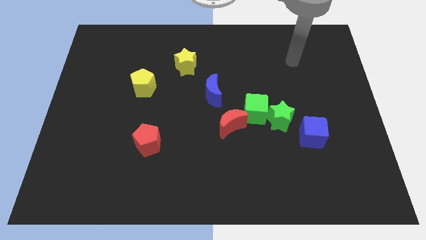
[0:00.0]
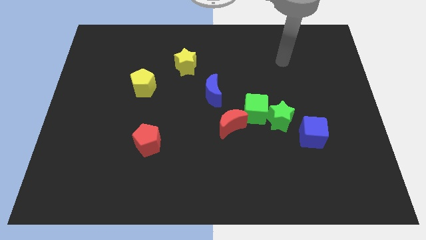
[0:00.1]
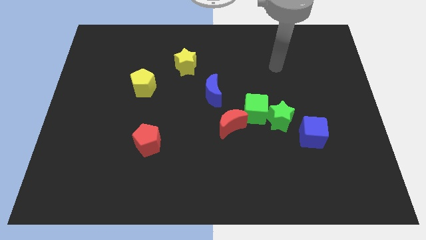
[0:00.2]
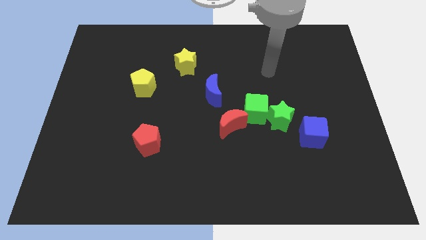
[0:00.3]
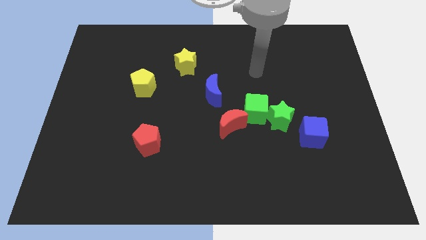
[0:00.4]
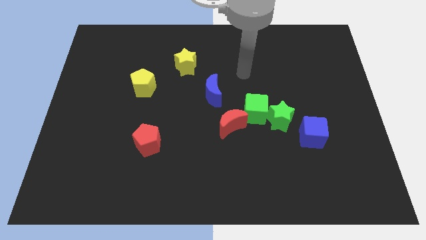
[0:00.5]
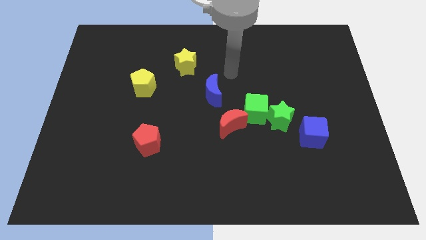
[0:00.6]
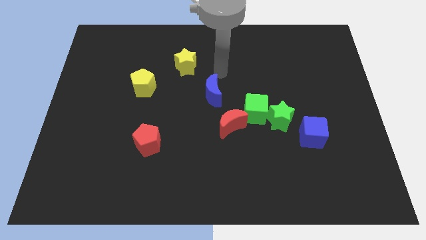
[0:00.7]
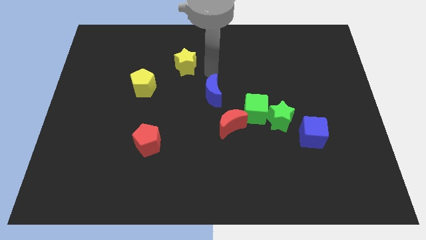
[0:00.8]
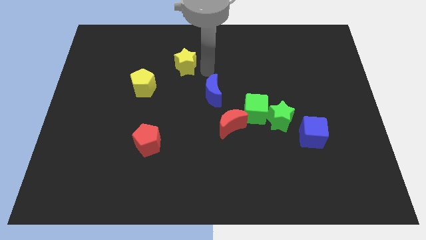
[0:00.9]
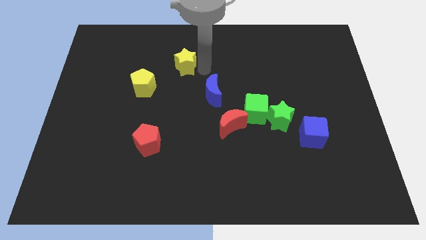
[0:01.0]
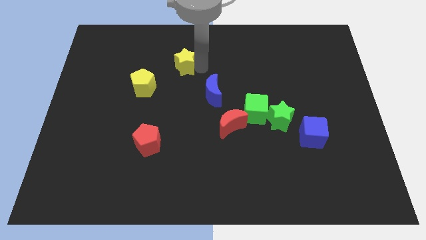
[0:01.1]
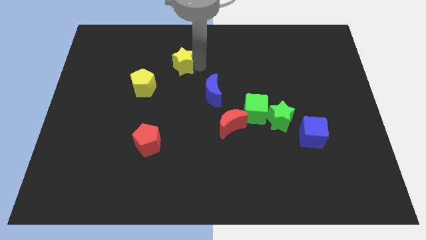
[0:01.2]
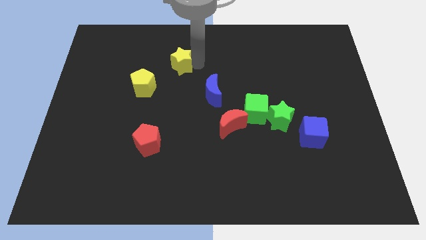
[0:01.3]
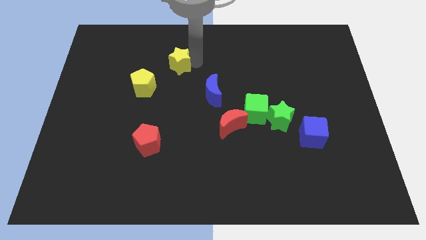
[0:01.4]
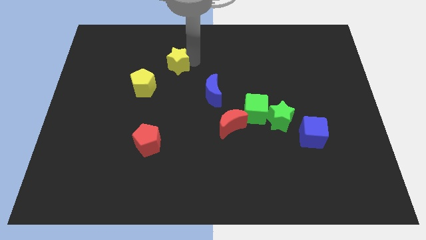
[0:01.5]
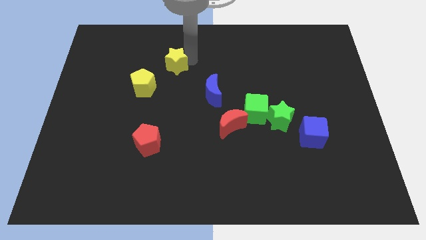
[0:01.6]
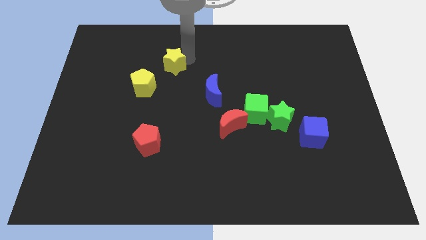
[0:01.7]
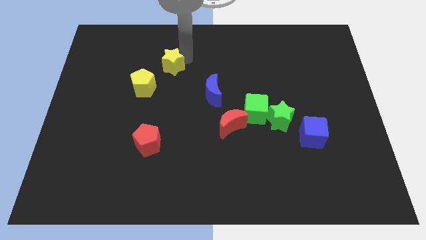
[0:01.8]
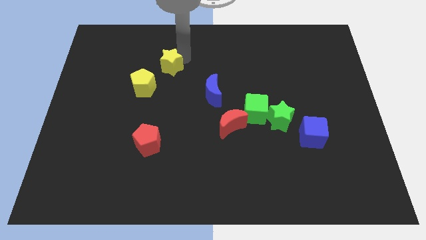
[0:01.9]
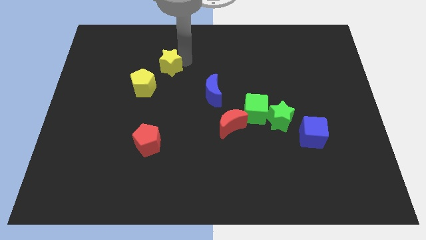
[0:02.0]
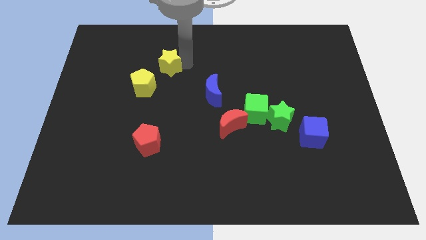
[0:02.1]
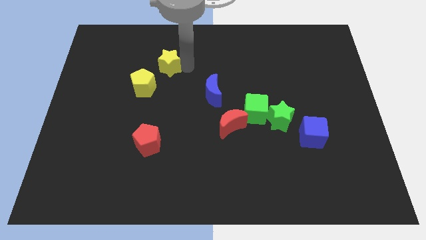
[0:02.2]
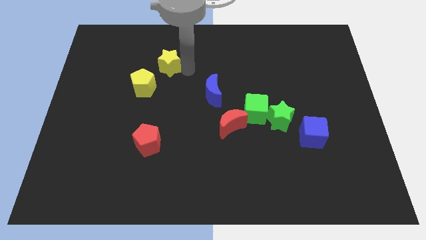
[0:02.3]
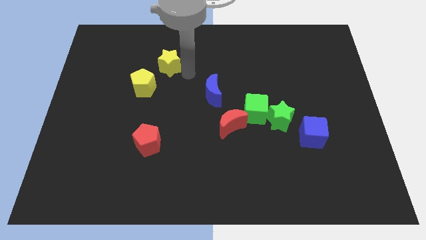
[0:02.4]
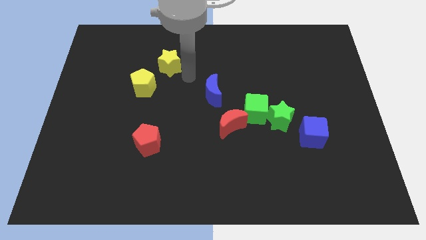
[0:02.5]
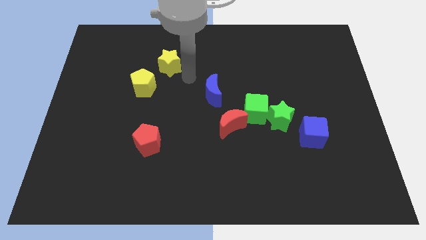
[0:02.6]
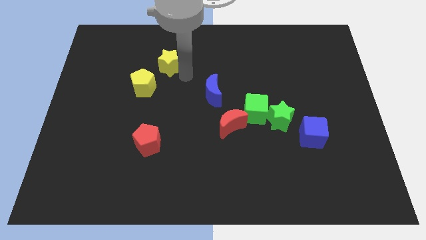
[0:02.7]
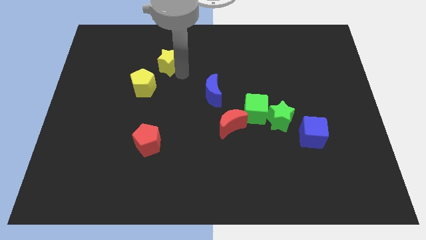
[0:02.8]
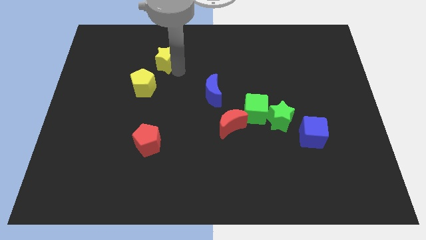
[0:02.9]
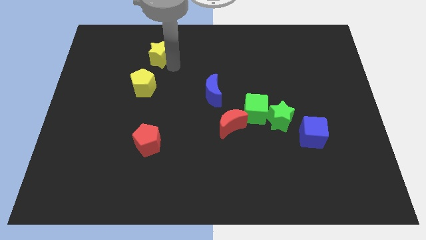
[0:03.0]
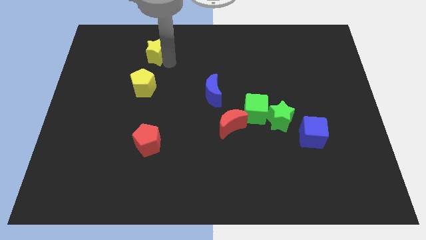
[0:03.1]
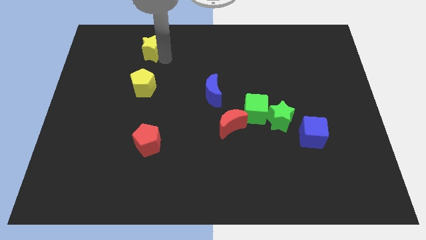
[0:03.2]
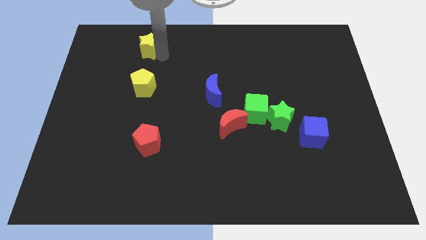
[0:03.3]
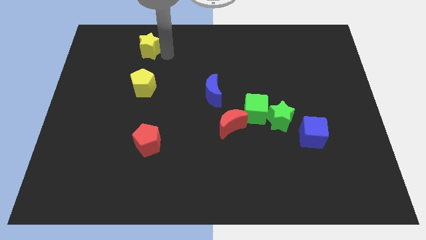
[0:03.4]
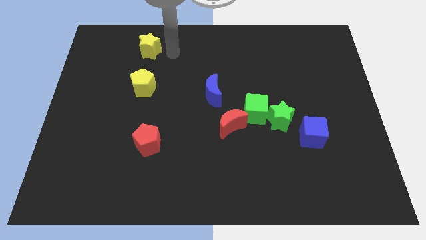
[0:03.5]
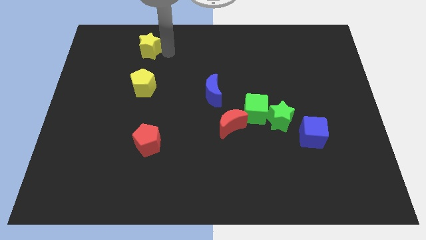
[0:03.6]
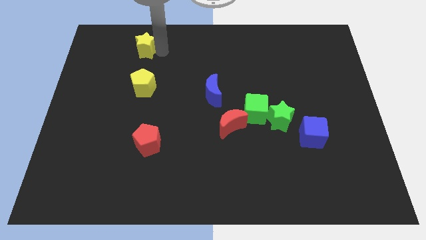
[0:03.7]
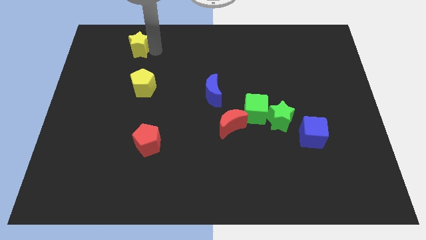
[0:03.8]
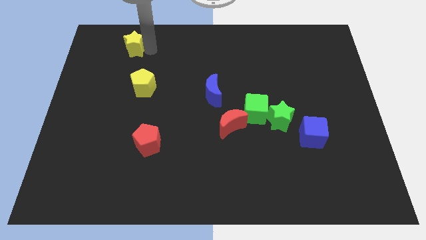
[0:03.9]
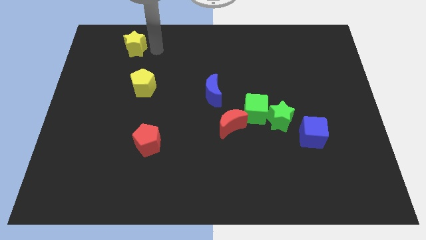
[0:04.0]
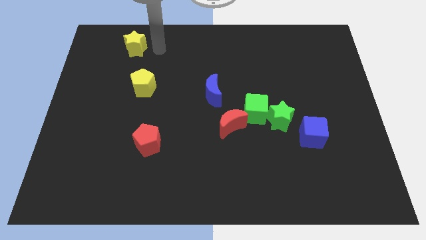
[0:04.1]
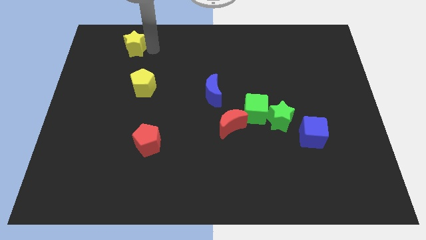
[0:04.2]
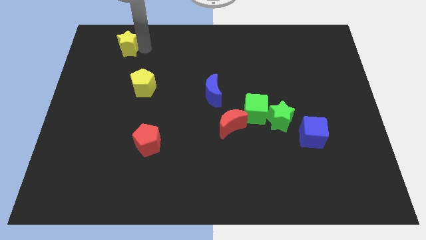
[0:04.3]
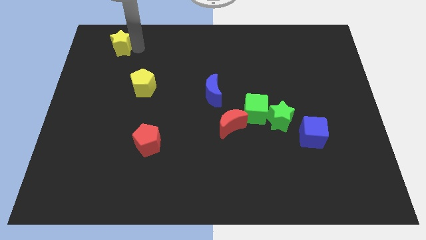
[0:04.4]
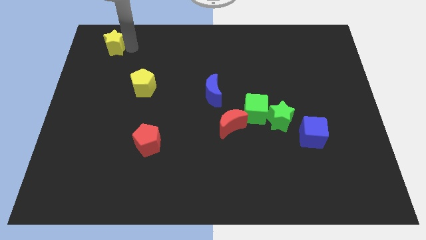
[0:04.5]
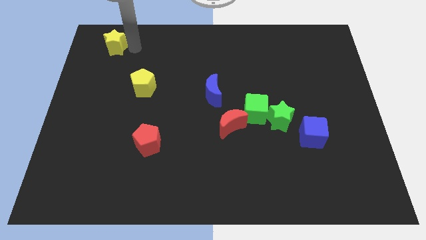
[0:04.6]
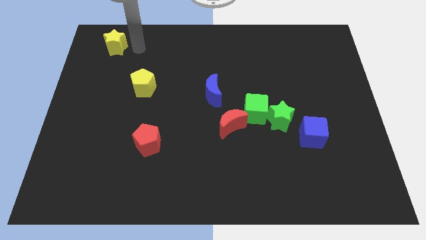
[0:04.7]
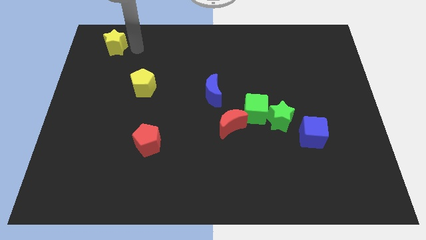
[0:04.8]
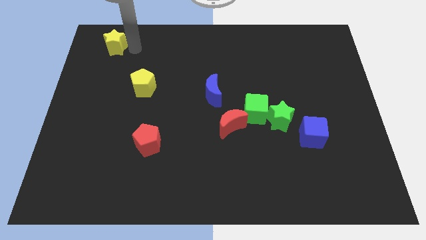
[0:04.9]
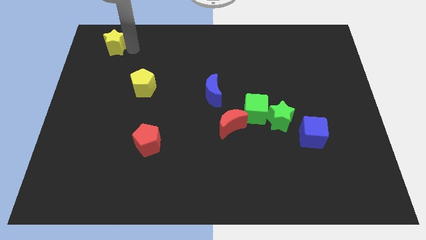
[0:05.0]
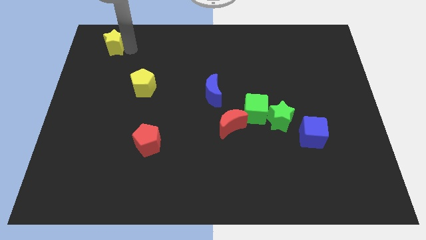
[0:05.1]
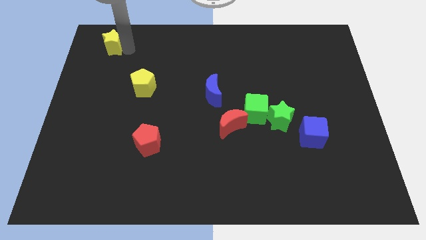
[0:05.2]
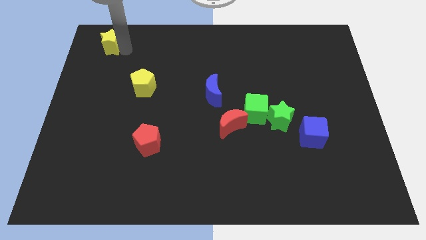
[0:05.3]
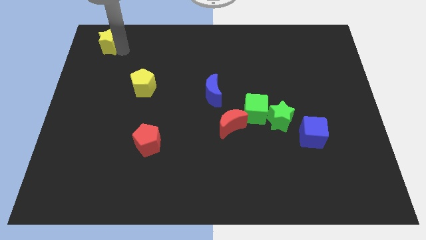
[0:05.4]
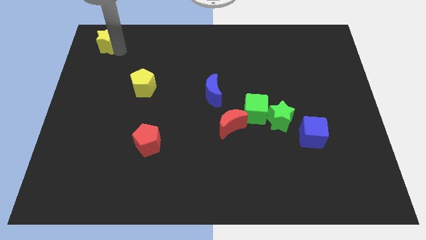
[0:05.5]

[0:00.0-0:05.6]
move the yellow star to the top left of the board

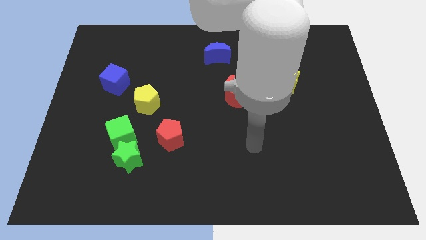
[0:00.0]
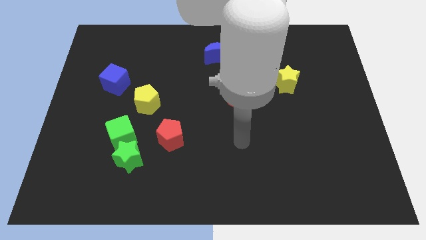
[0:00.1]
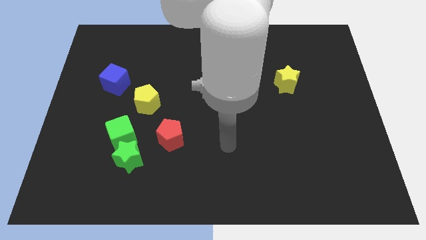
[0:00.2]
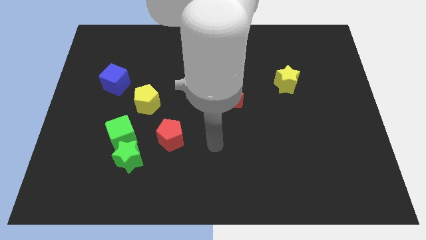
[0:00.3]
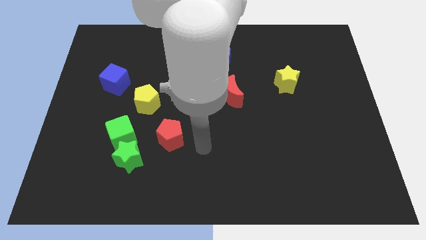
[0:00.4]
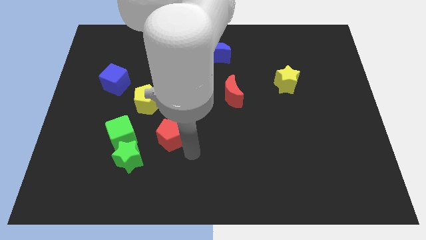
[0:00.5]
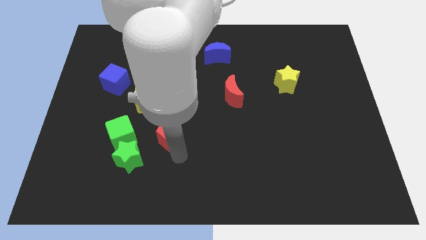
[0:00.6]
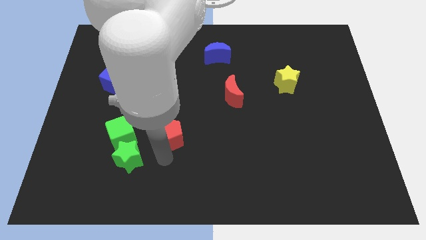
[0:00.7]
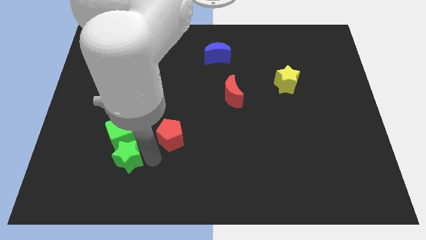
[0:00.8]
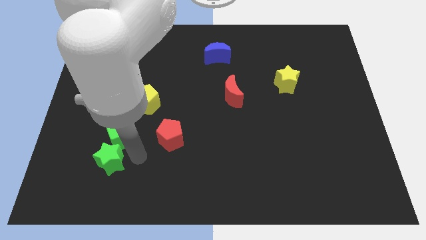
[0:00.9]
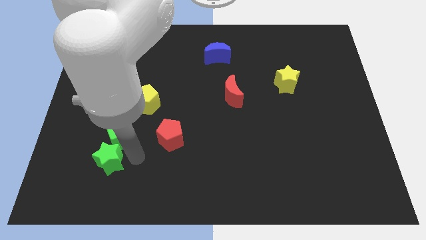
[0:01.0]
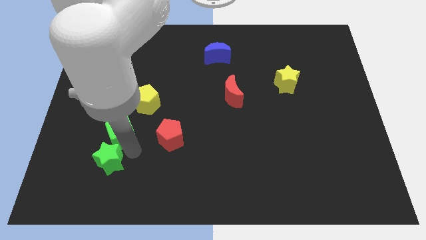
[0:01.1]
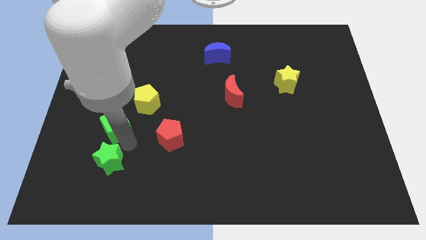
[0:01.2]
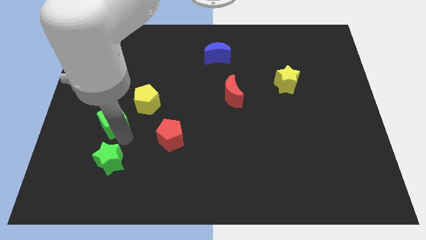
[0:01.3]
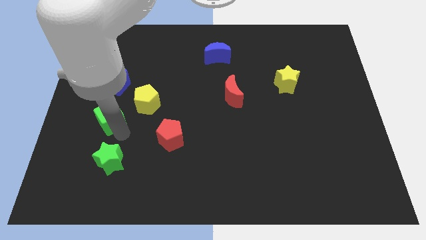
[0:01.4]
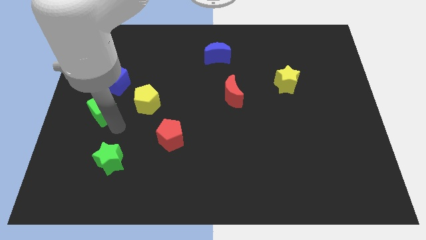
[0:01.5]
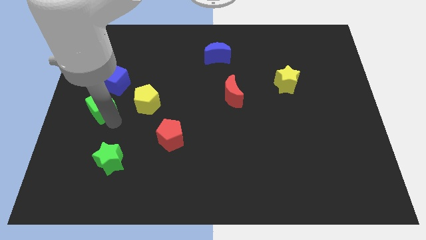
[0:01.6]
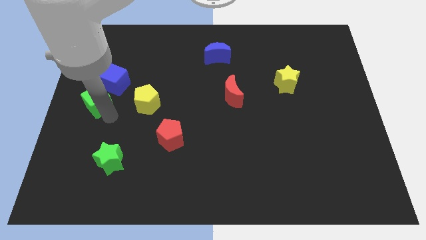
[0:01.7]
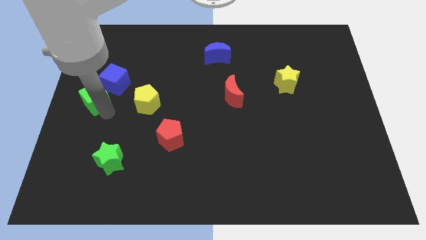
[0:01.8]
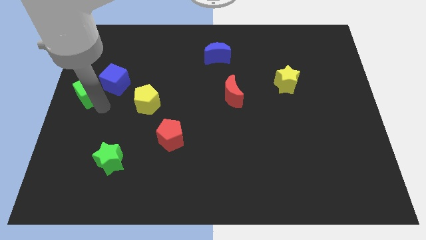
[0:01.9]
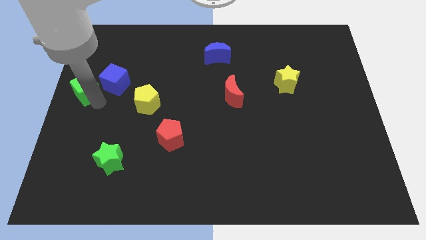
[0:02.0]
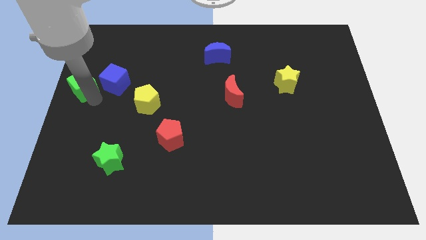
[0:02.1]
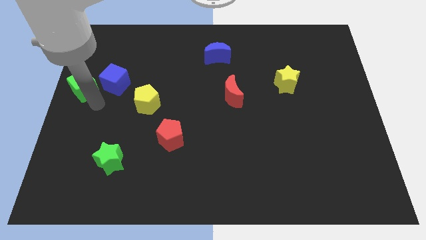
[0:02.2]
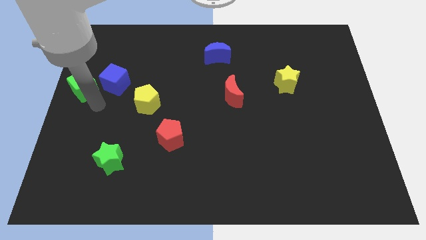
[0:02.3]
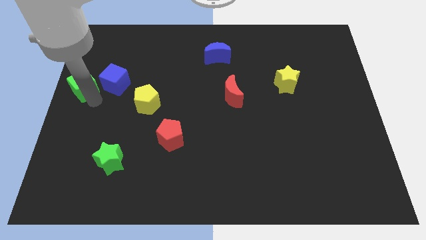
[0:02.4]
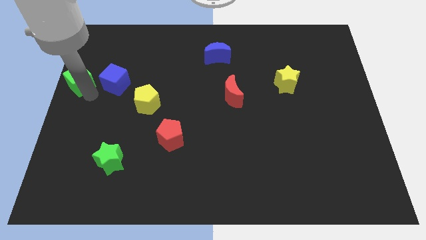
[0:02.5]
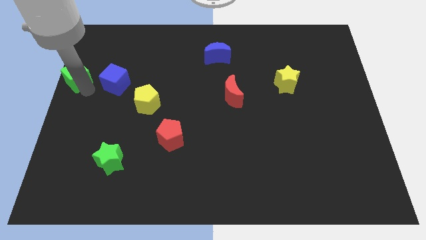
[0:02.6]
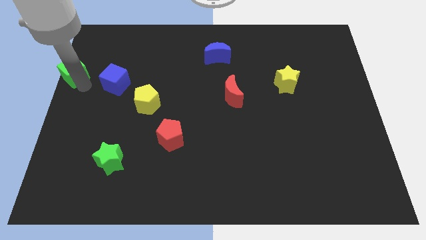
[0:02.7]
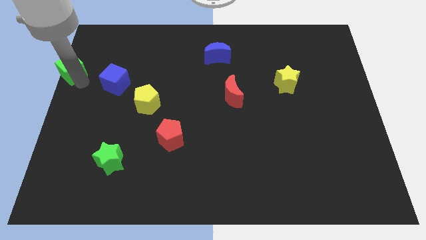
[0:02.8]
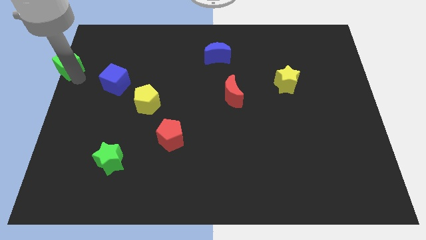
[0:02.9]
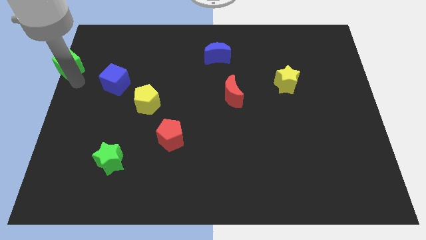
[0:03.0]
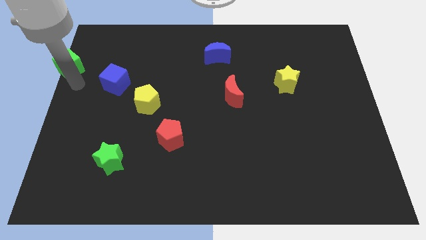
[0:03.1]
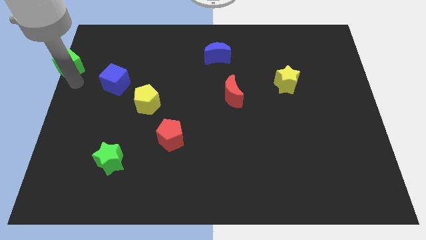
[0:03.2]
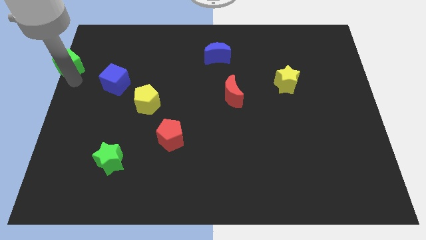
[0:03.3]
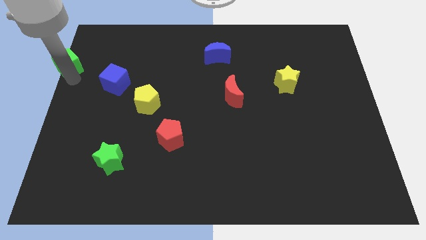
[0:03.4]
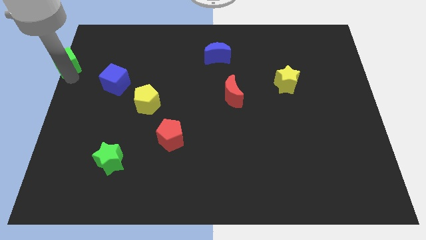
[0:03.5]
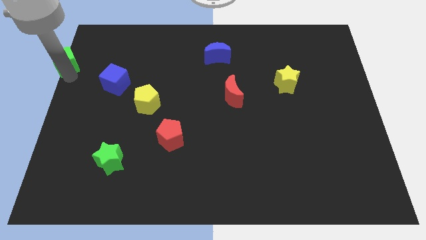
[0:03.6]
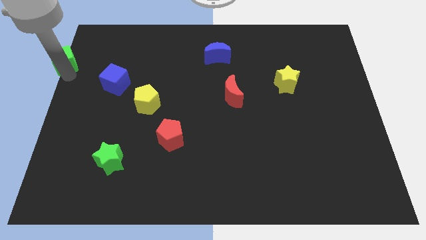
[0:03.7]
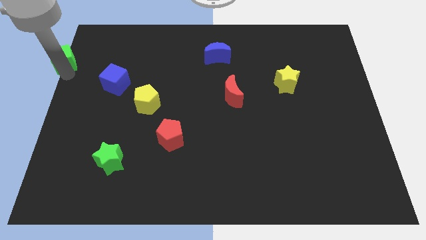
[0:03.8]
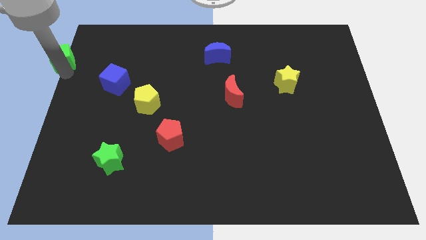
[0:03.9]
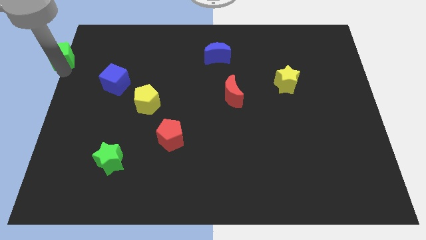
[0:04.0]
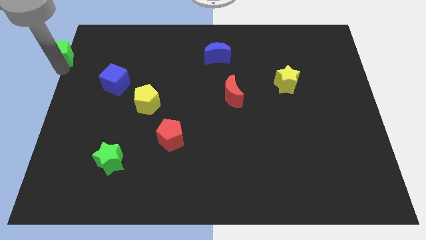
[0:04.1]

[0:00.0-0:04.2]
move the green cube to the top left corner
